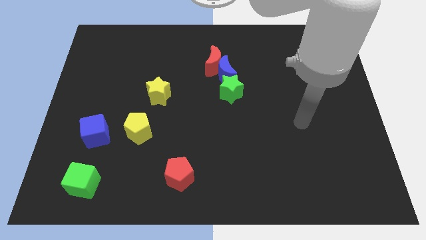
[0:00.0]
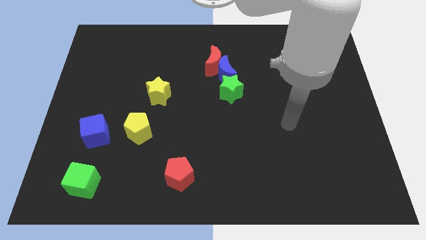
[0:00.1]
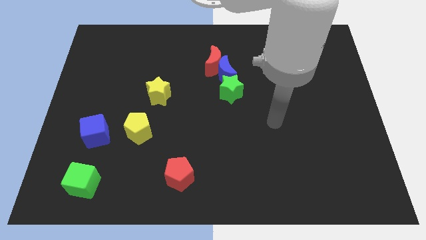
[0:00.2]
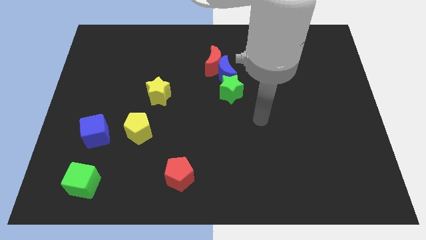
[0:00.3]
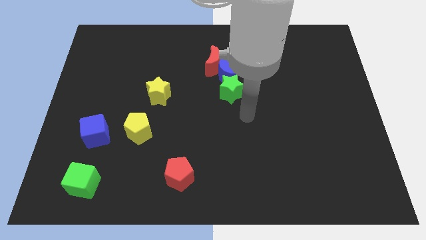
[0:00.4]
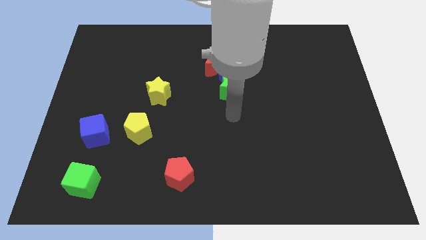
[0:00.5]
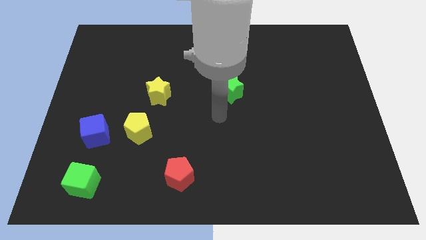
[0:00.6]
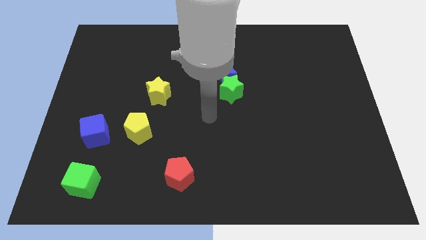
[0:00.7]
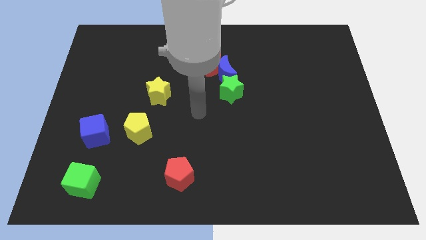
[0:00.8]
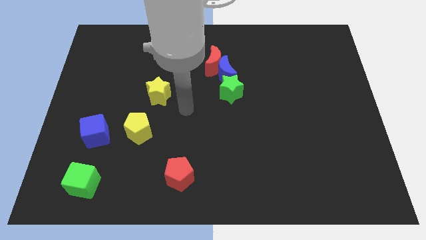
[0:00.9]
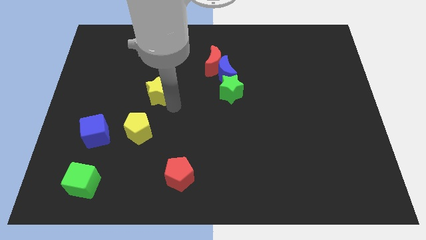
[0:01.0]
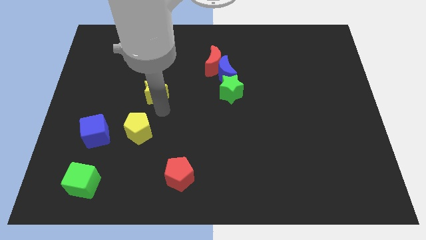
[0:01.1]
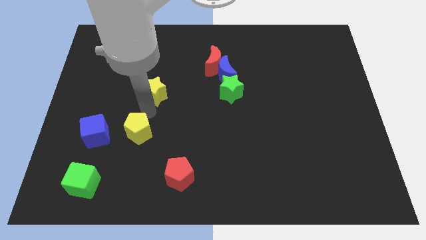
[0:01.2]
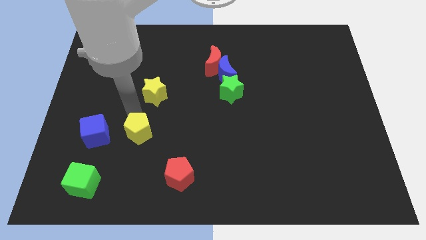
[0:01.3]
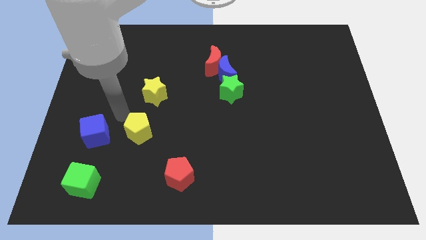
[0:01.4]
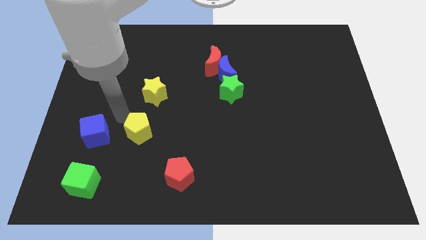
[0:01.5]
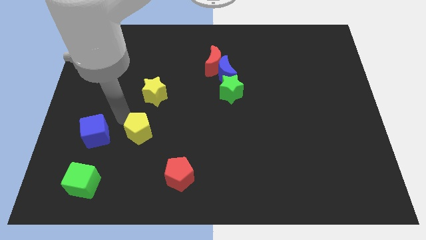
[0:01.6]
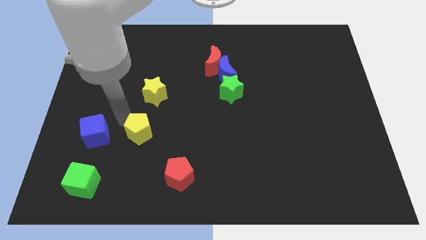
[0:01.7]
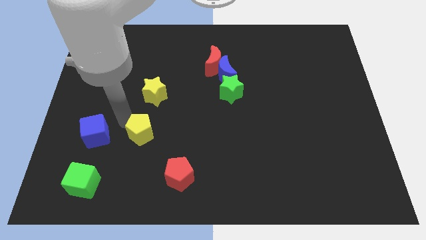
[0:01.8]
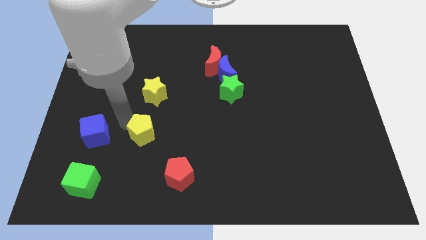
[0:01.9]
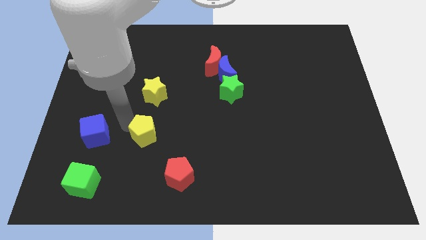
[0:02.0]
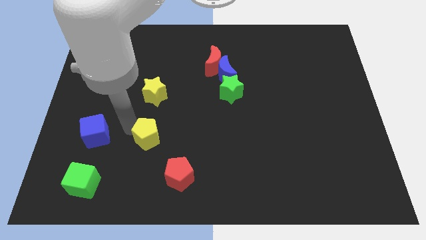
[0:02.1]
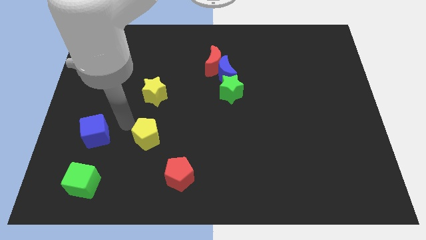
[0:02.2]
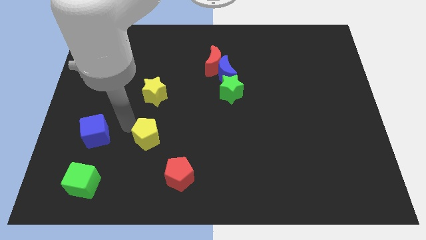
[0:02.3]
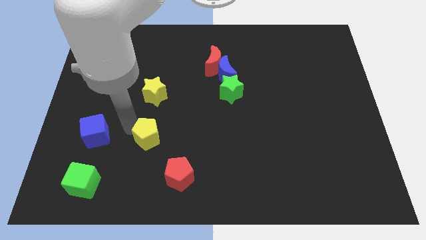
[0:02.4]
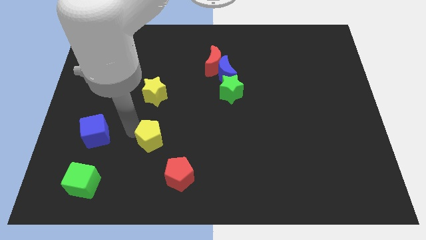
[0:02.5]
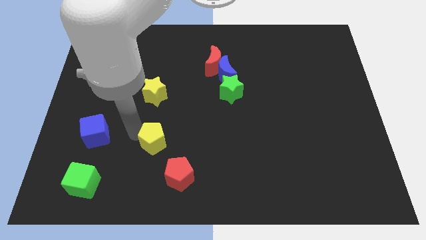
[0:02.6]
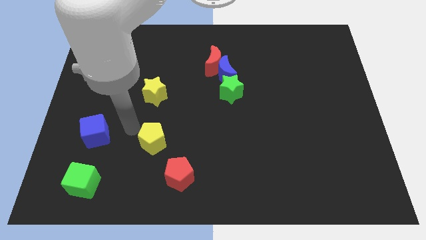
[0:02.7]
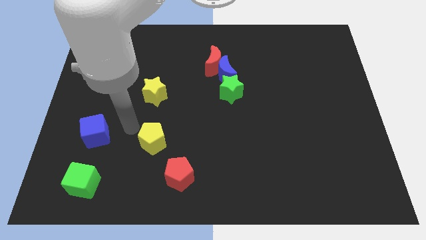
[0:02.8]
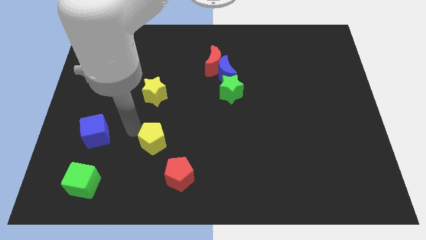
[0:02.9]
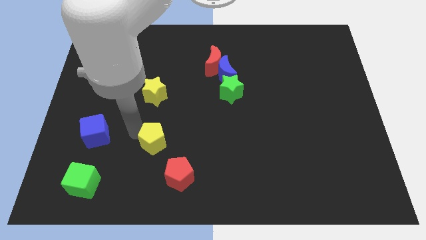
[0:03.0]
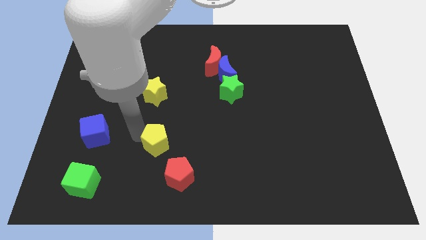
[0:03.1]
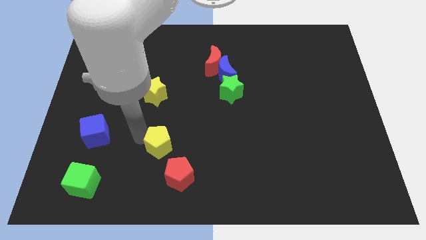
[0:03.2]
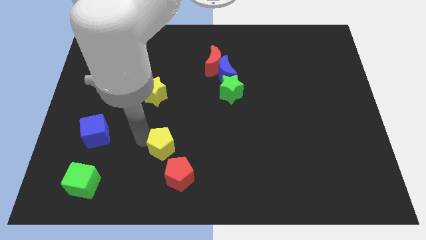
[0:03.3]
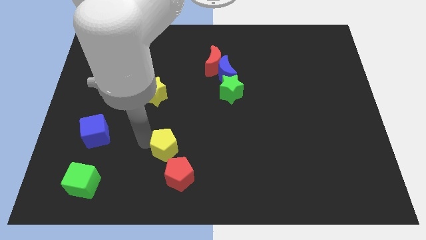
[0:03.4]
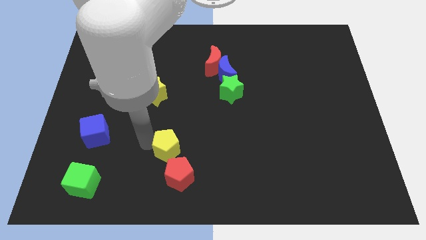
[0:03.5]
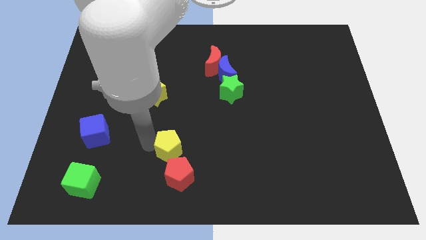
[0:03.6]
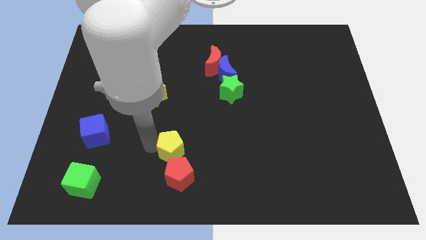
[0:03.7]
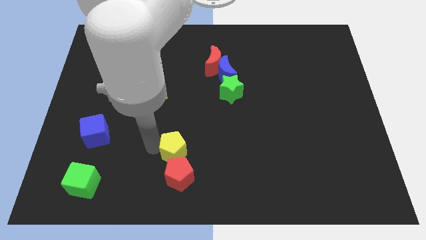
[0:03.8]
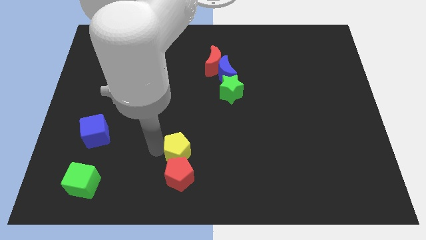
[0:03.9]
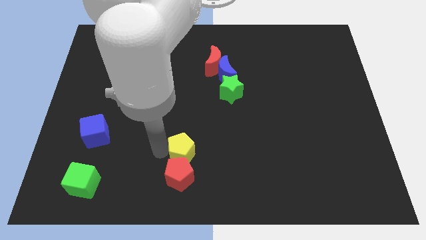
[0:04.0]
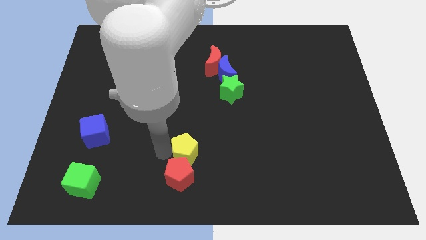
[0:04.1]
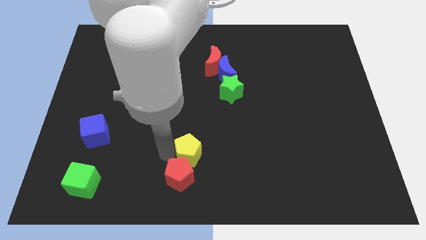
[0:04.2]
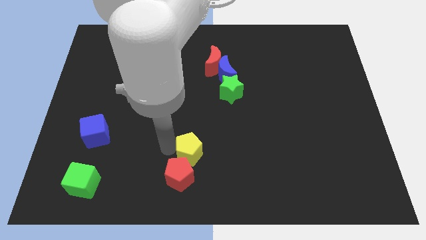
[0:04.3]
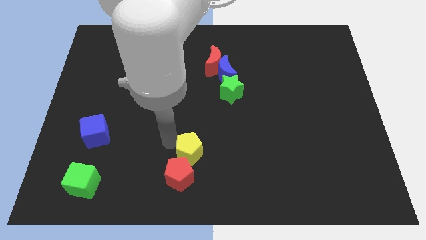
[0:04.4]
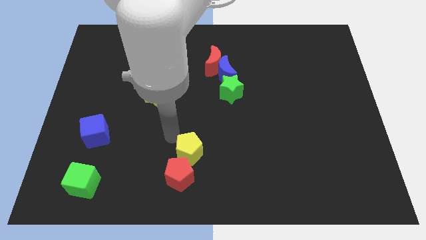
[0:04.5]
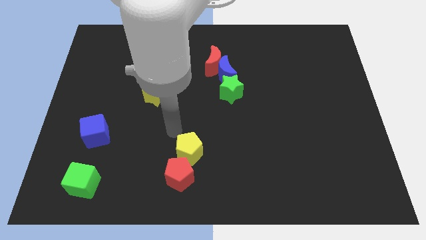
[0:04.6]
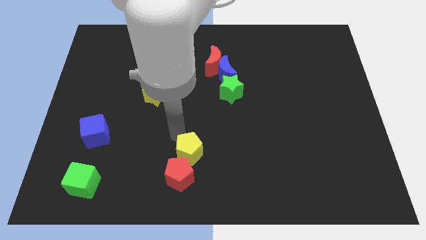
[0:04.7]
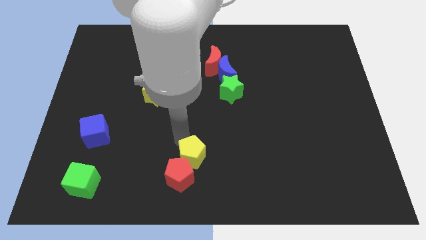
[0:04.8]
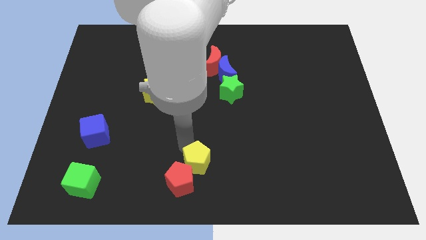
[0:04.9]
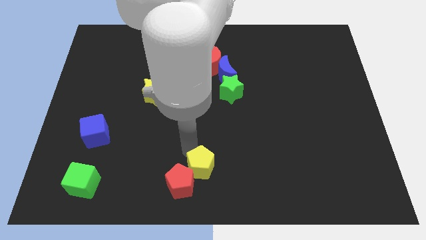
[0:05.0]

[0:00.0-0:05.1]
push the yellow pentagon just right of the red pentagon

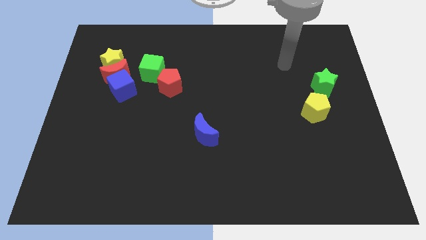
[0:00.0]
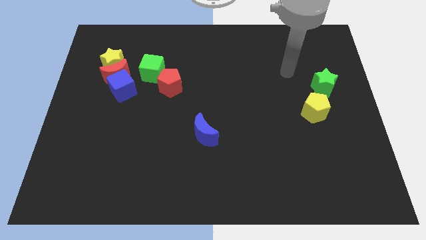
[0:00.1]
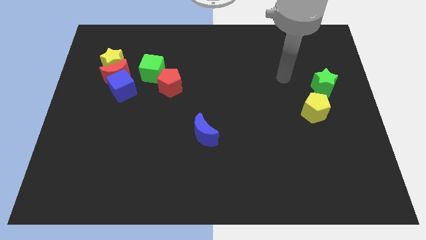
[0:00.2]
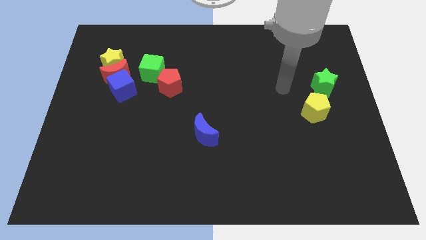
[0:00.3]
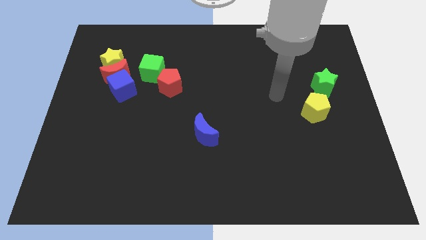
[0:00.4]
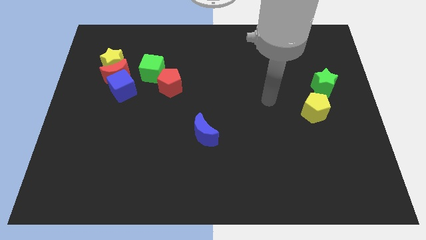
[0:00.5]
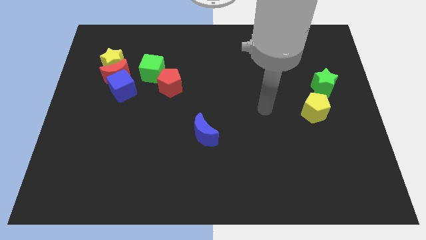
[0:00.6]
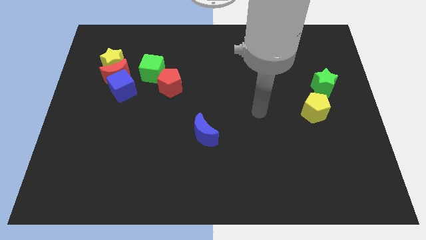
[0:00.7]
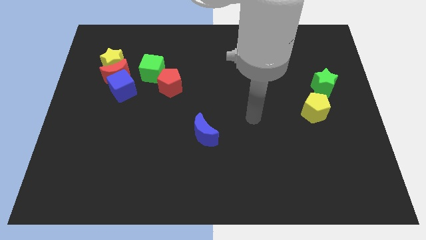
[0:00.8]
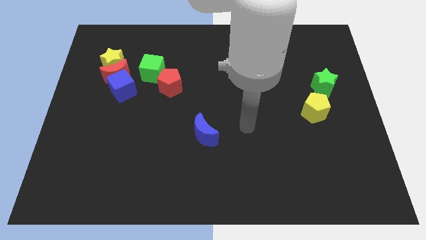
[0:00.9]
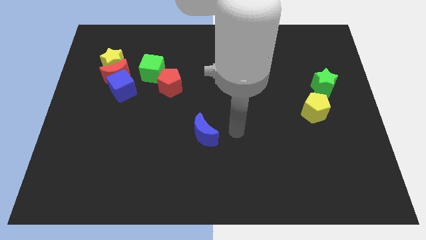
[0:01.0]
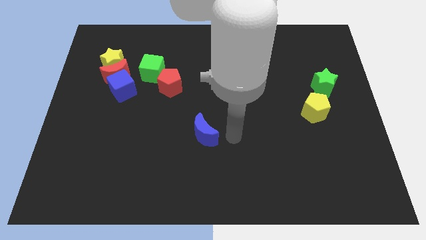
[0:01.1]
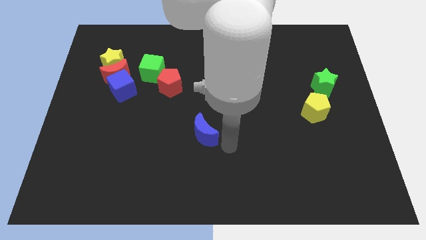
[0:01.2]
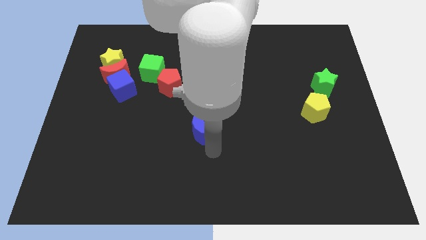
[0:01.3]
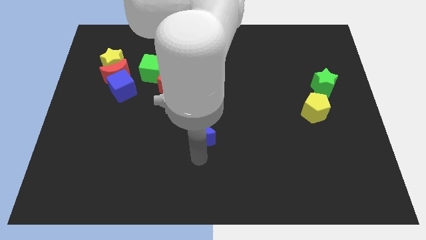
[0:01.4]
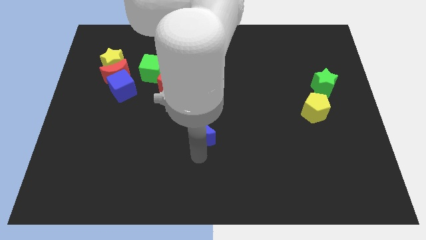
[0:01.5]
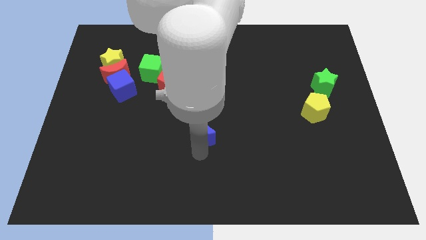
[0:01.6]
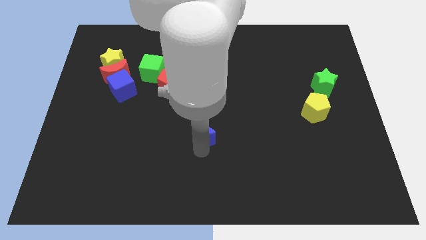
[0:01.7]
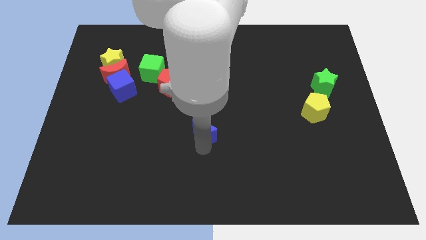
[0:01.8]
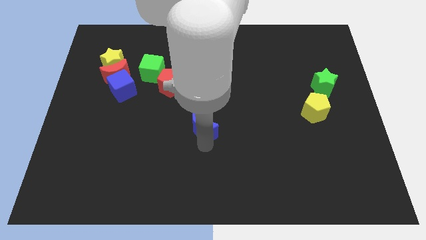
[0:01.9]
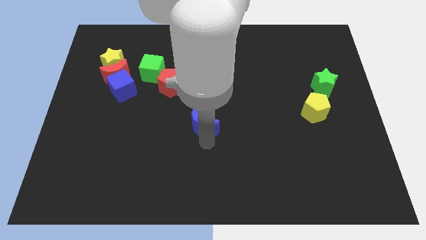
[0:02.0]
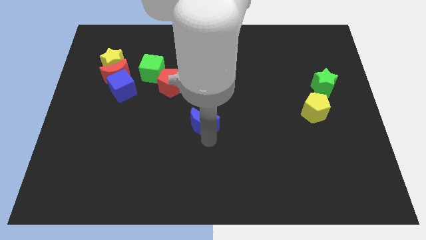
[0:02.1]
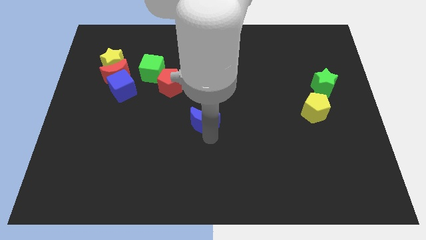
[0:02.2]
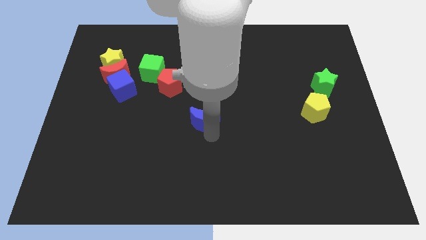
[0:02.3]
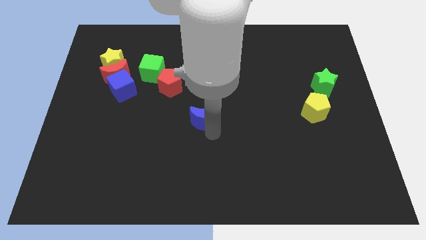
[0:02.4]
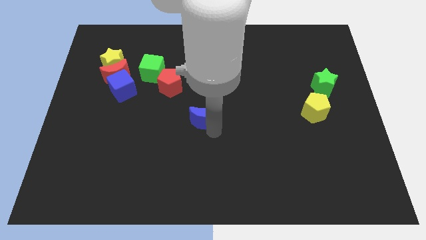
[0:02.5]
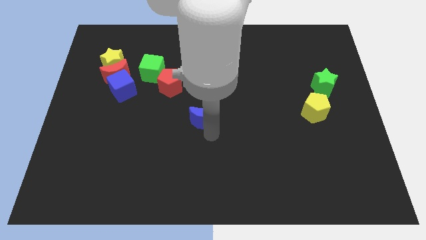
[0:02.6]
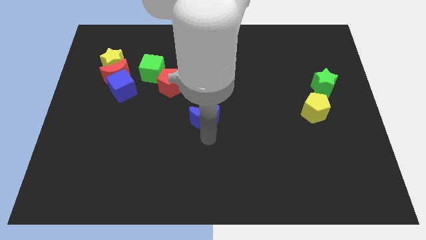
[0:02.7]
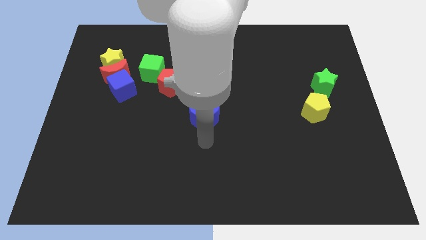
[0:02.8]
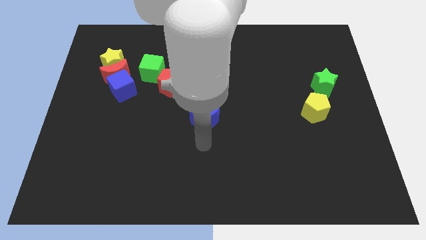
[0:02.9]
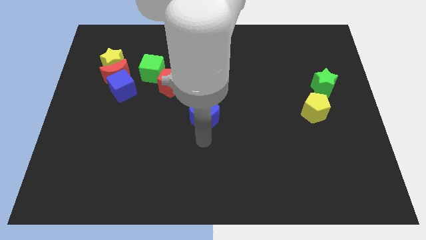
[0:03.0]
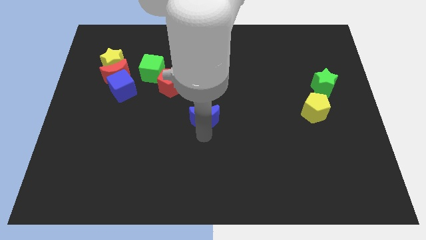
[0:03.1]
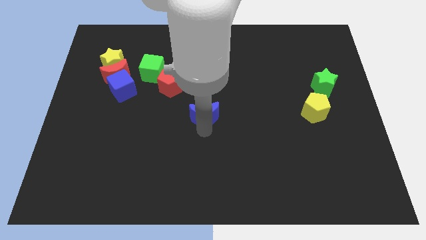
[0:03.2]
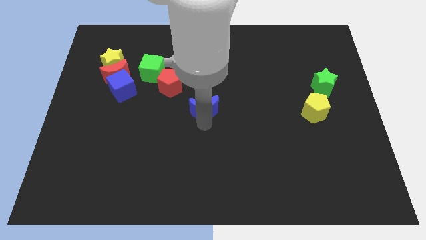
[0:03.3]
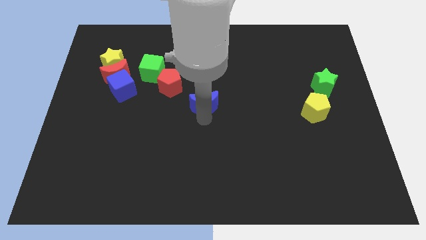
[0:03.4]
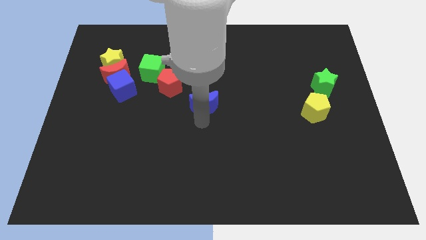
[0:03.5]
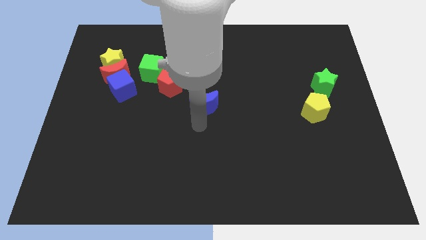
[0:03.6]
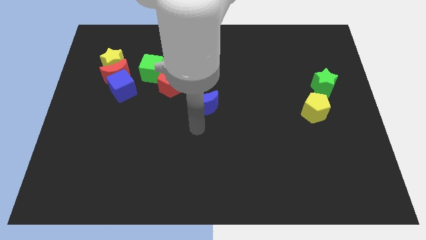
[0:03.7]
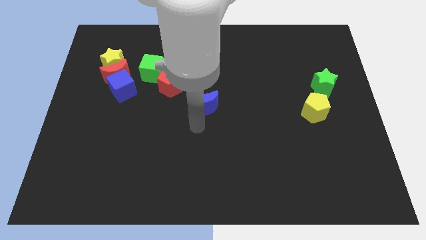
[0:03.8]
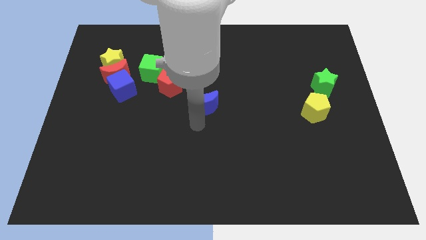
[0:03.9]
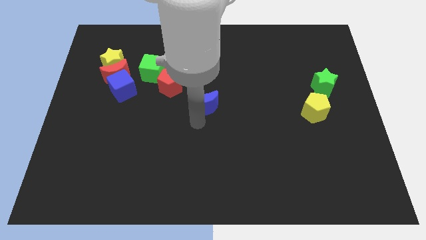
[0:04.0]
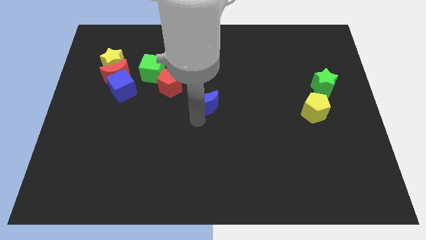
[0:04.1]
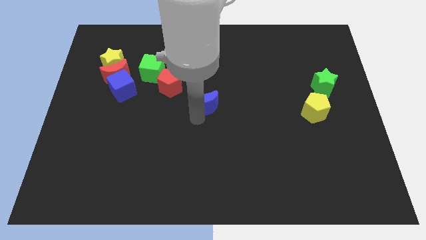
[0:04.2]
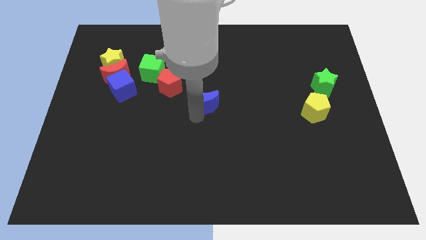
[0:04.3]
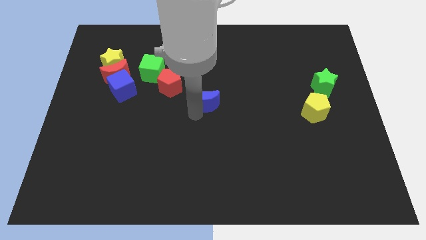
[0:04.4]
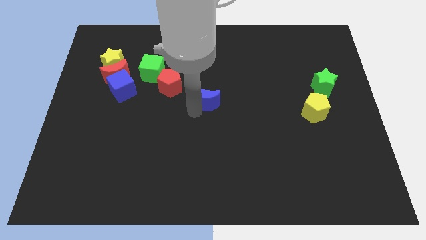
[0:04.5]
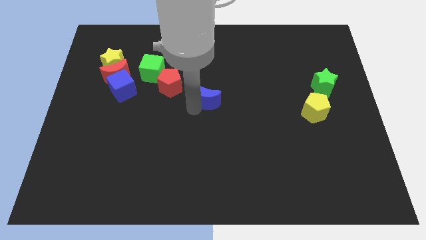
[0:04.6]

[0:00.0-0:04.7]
slide the blue moon to the right side of the red pentagon
